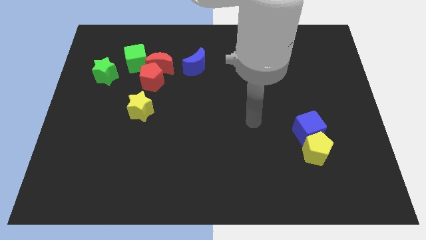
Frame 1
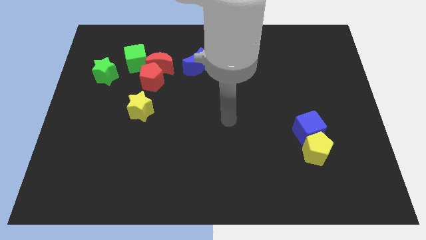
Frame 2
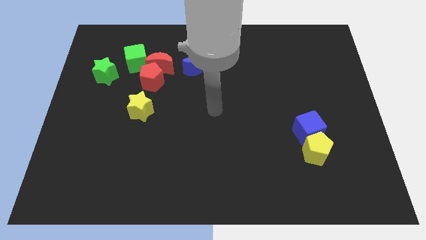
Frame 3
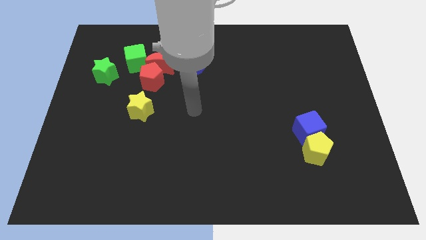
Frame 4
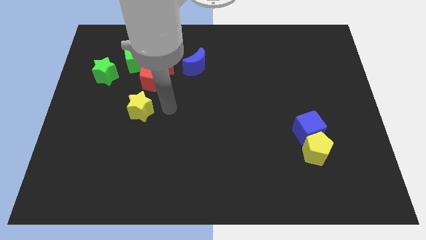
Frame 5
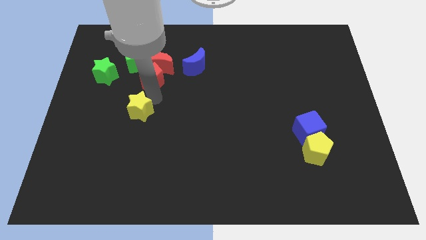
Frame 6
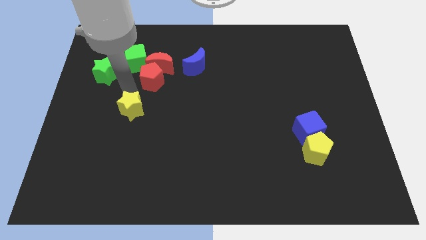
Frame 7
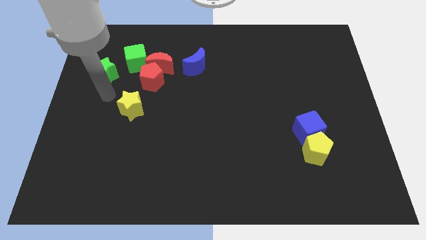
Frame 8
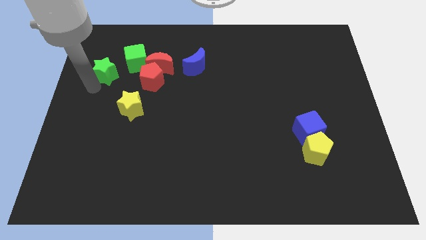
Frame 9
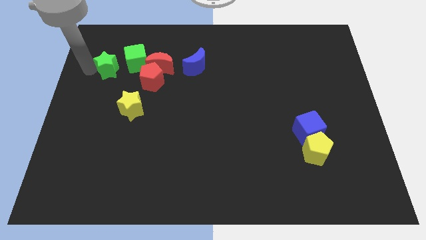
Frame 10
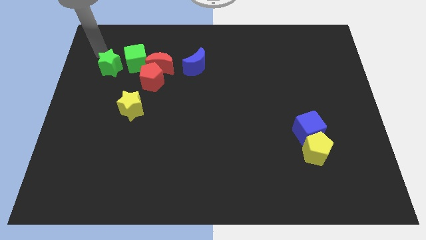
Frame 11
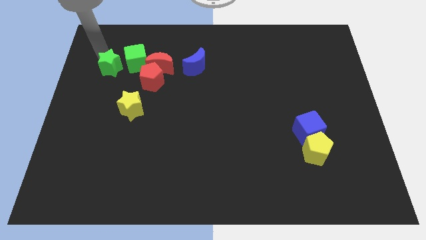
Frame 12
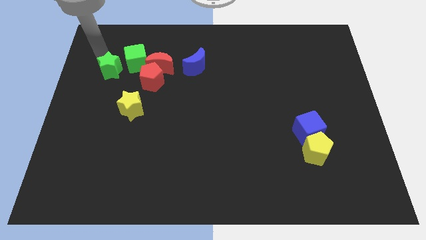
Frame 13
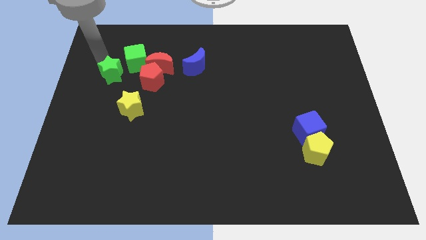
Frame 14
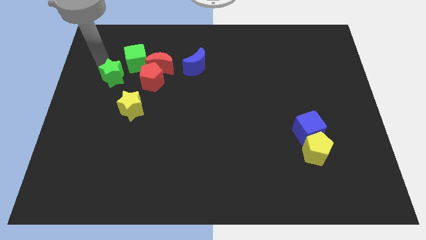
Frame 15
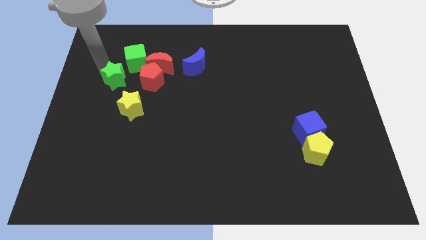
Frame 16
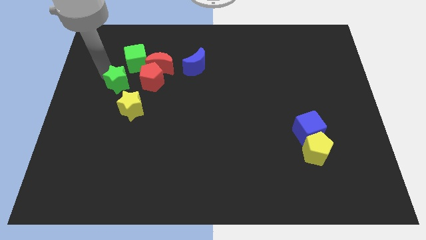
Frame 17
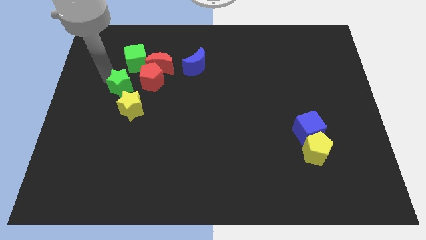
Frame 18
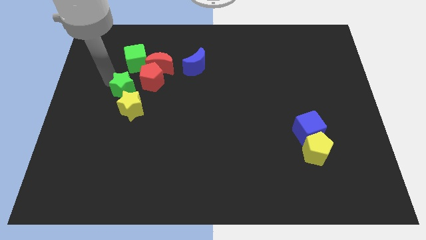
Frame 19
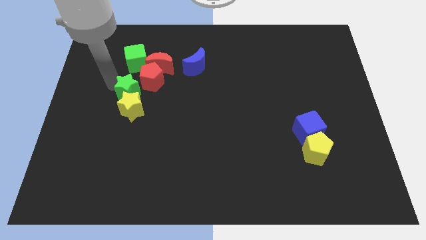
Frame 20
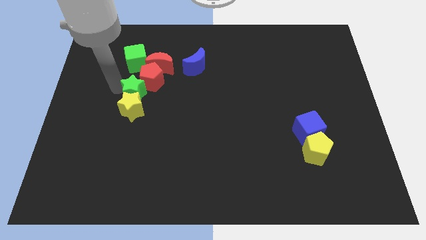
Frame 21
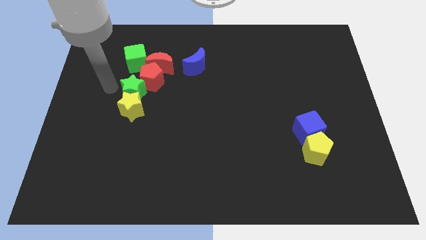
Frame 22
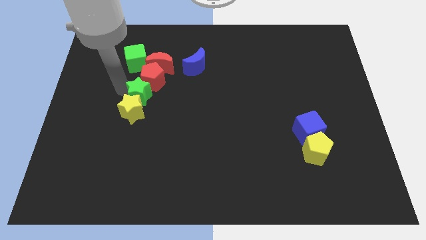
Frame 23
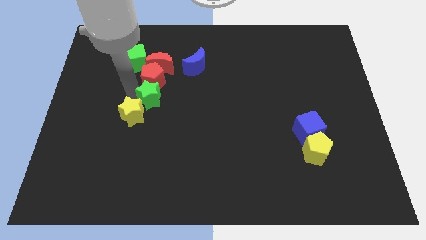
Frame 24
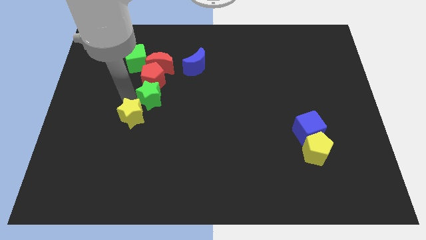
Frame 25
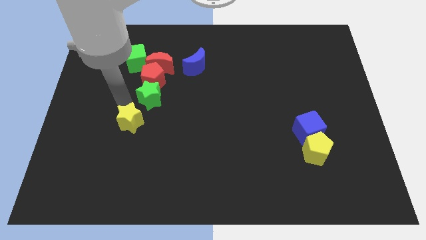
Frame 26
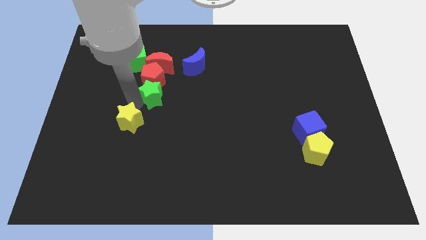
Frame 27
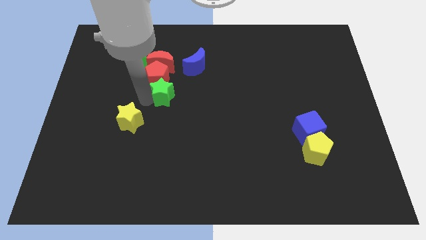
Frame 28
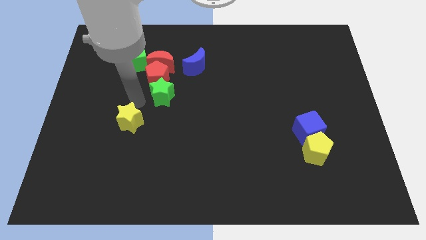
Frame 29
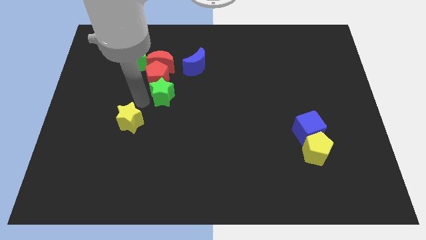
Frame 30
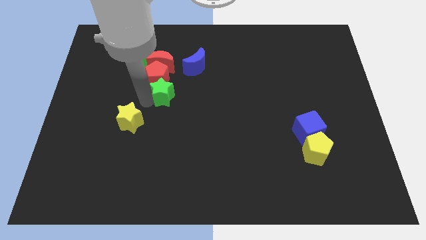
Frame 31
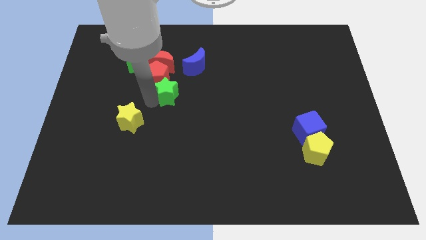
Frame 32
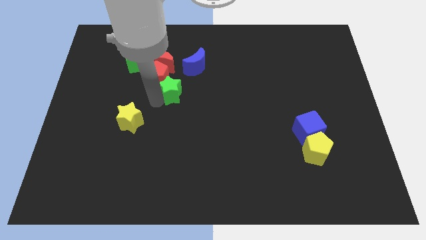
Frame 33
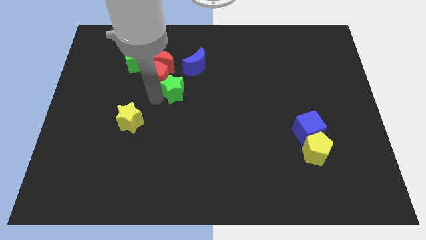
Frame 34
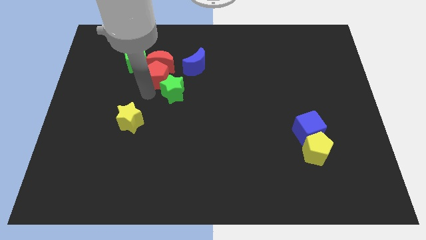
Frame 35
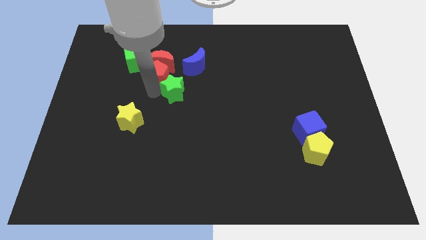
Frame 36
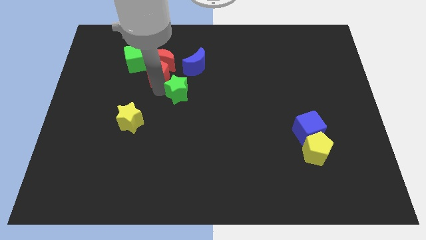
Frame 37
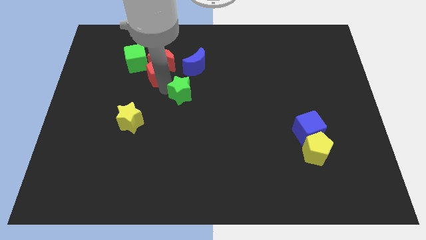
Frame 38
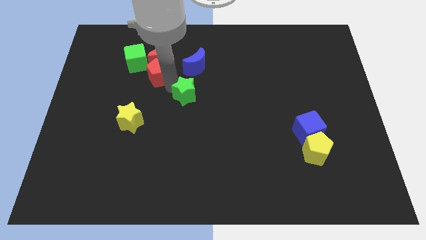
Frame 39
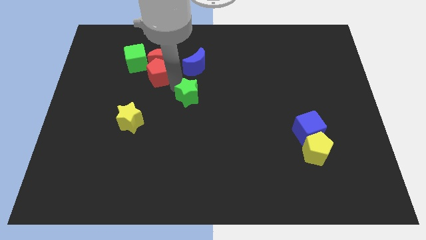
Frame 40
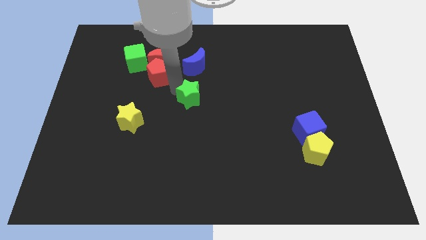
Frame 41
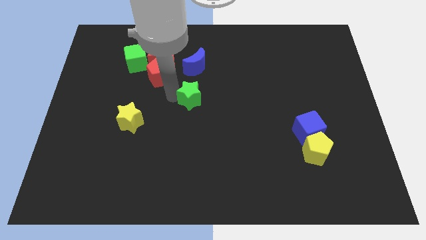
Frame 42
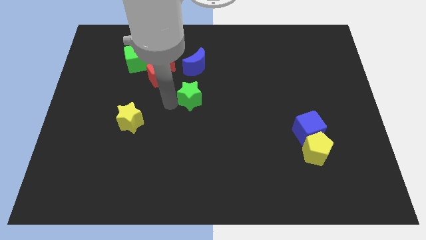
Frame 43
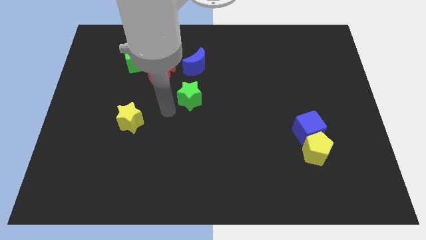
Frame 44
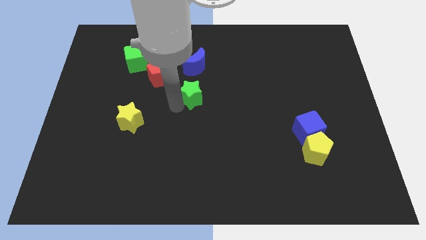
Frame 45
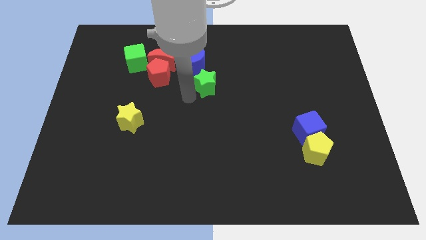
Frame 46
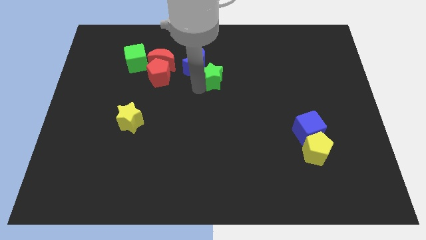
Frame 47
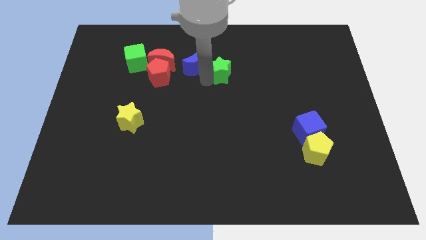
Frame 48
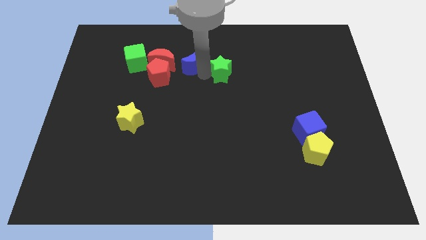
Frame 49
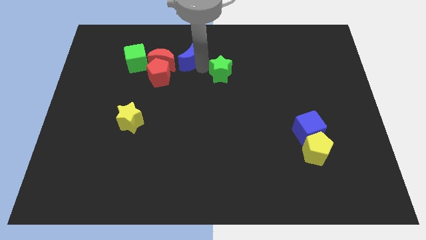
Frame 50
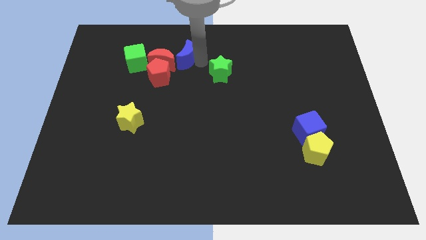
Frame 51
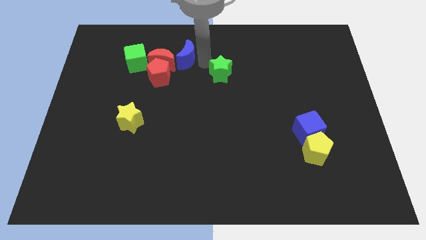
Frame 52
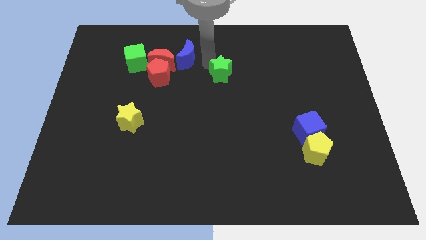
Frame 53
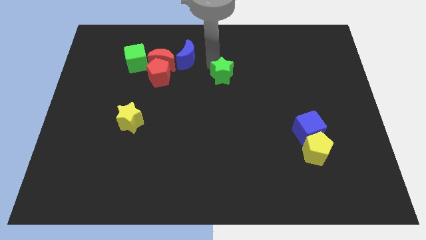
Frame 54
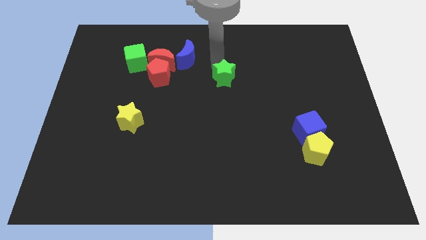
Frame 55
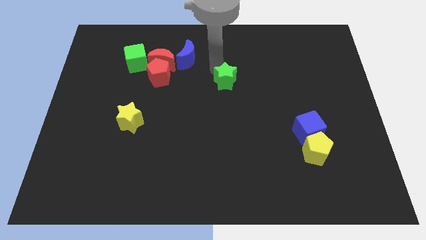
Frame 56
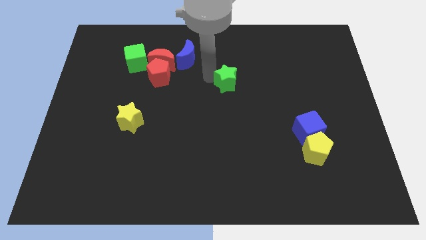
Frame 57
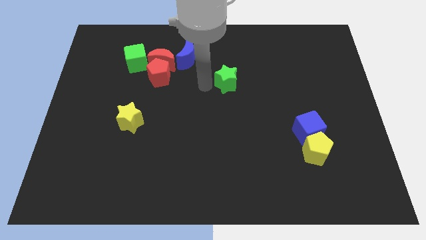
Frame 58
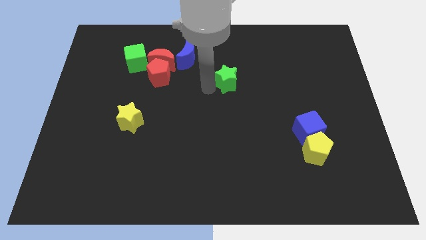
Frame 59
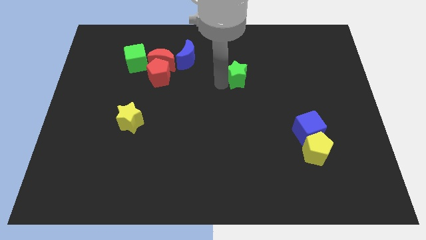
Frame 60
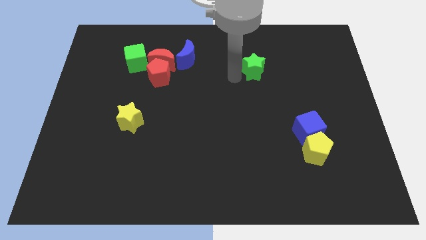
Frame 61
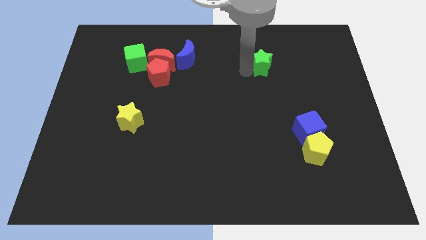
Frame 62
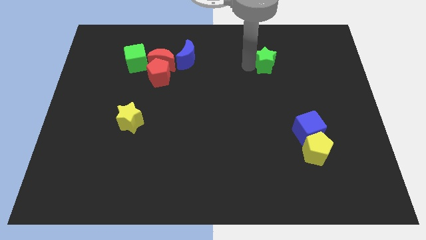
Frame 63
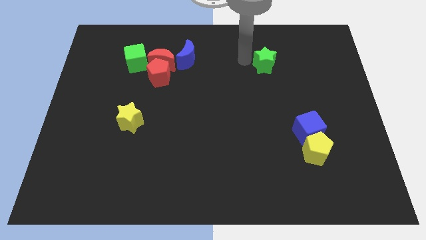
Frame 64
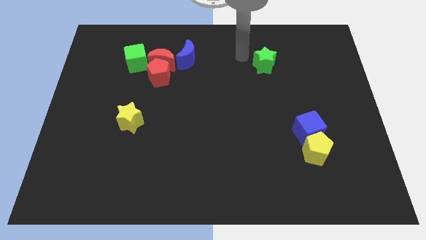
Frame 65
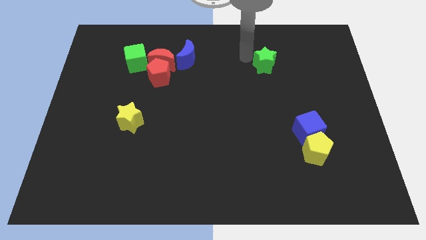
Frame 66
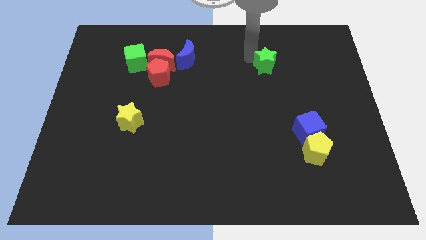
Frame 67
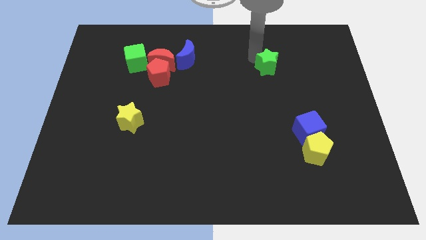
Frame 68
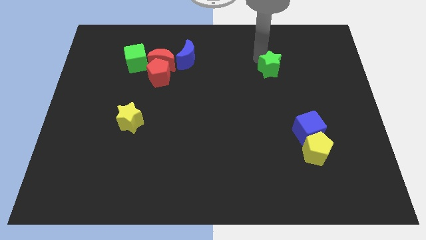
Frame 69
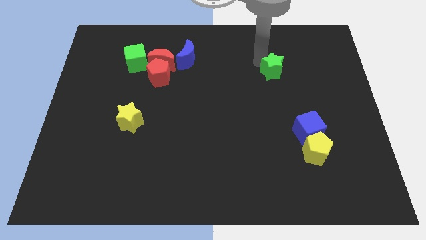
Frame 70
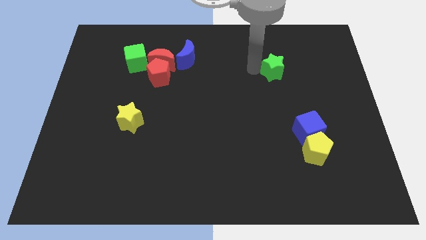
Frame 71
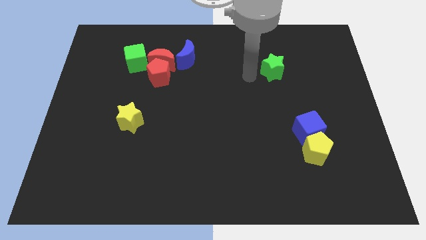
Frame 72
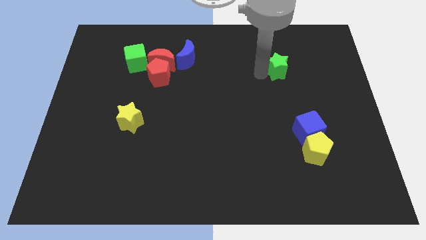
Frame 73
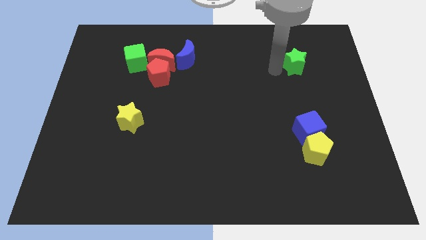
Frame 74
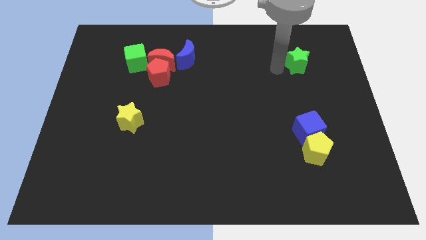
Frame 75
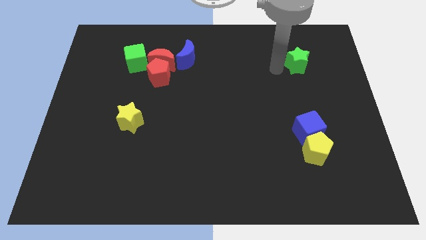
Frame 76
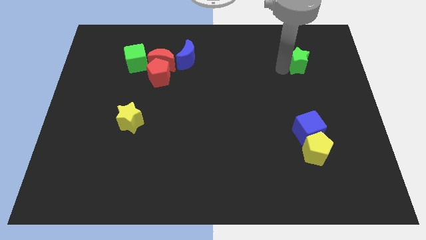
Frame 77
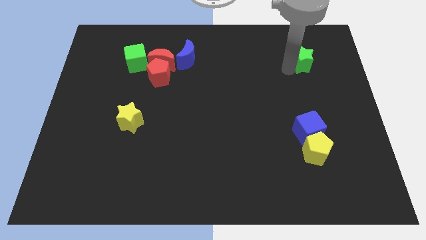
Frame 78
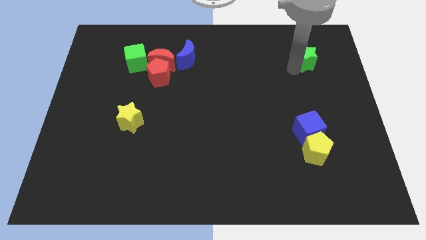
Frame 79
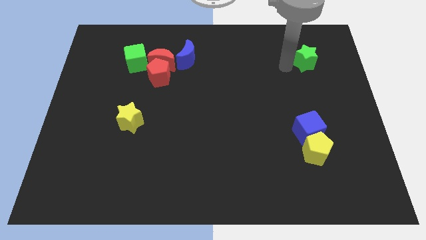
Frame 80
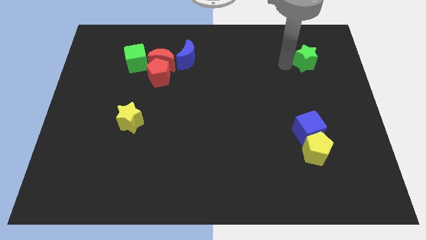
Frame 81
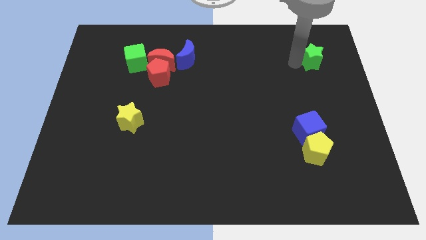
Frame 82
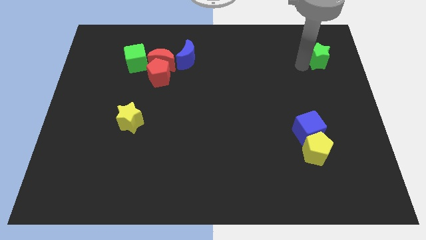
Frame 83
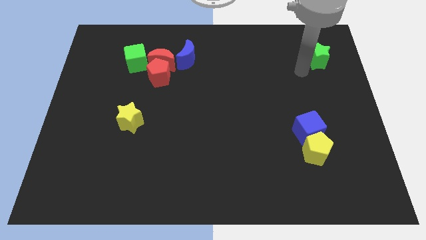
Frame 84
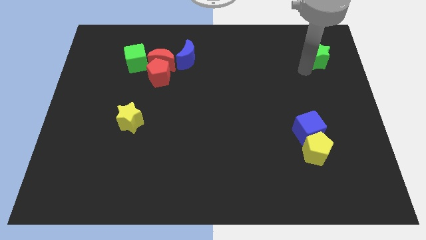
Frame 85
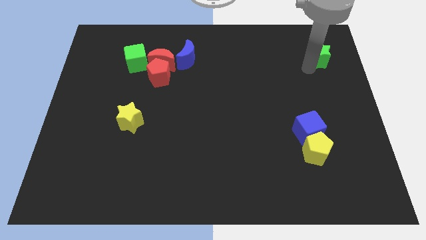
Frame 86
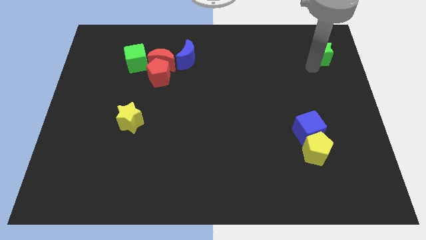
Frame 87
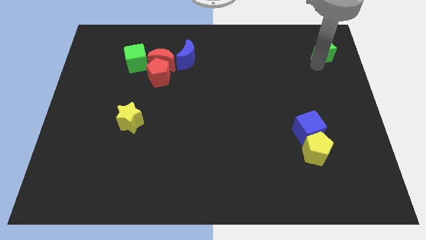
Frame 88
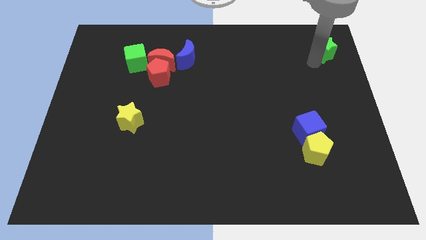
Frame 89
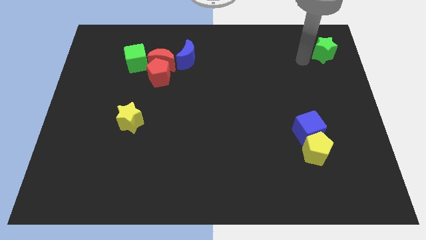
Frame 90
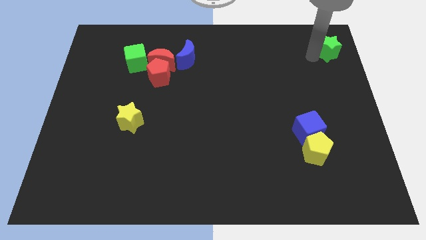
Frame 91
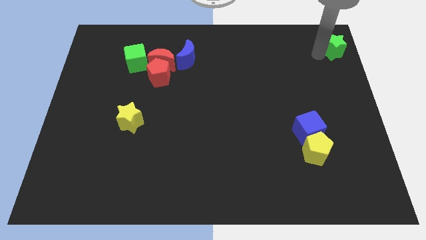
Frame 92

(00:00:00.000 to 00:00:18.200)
push the green star to the top right corner
